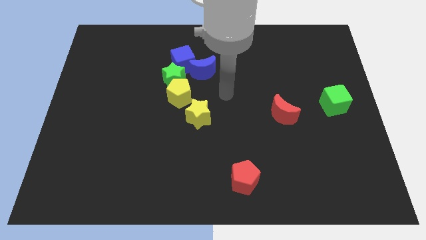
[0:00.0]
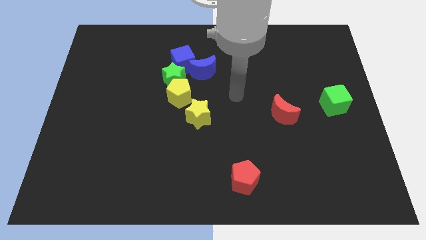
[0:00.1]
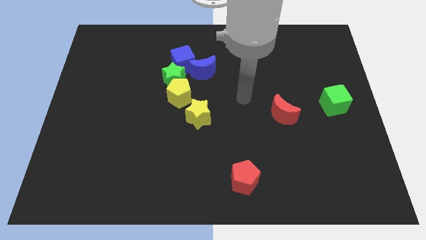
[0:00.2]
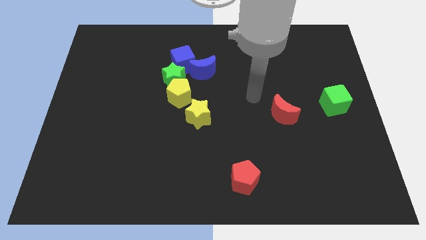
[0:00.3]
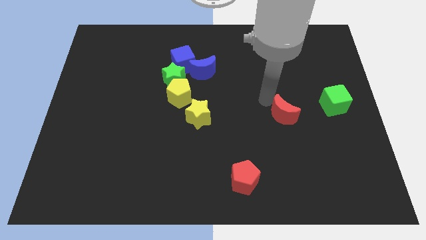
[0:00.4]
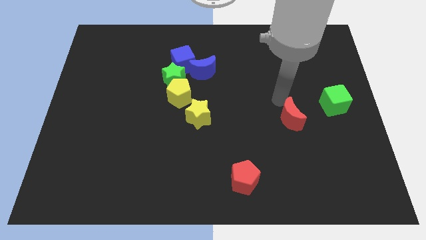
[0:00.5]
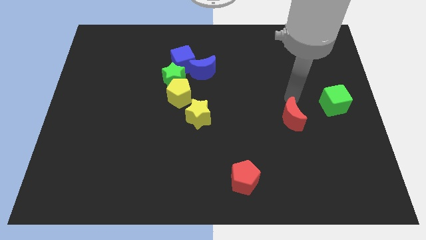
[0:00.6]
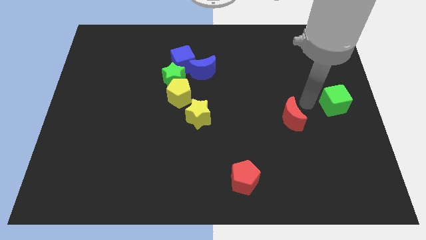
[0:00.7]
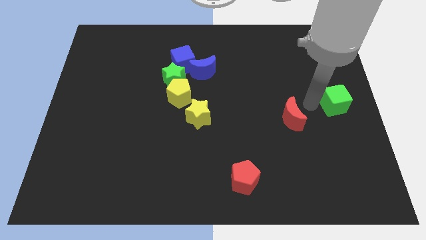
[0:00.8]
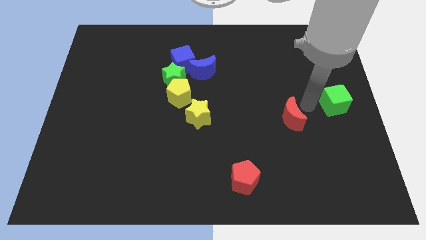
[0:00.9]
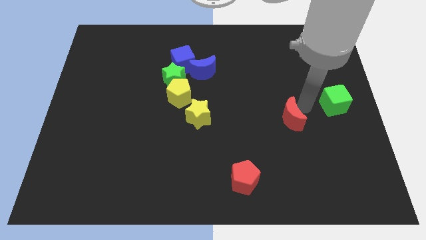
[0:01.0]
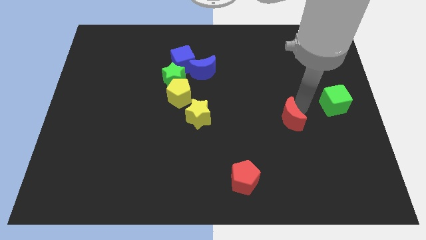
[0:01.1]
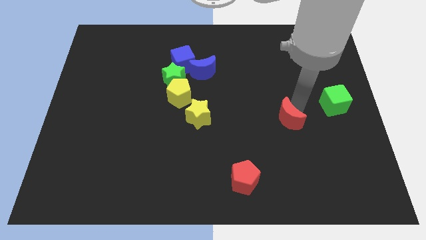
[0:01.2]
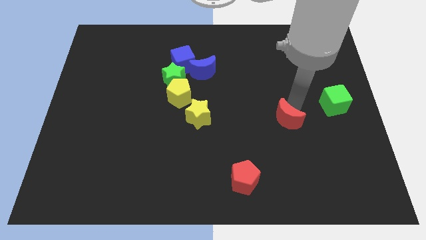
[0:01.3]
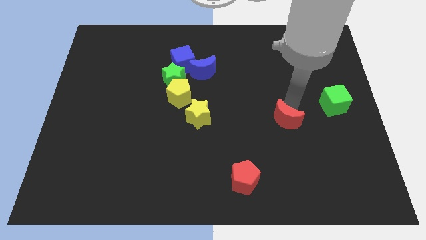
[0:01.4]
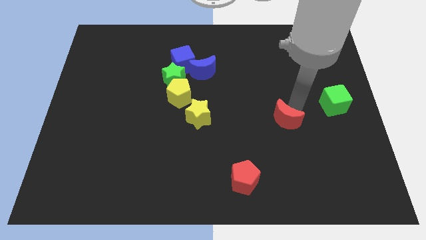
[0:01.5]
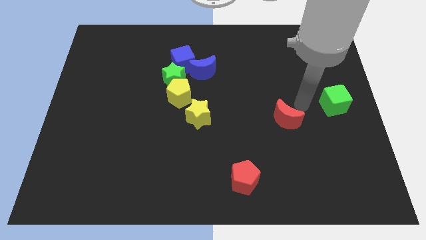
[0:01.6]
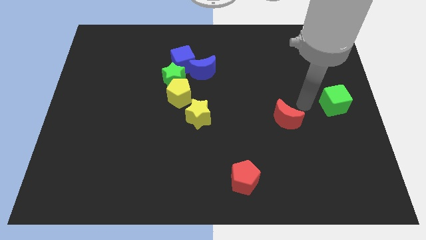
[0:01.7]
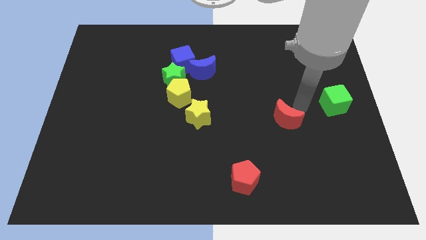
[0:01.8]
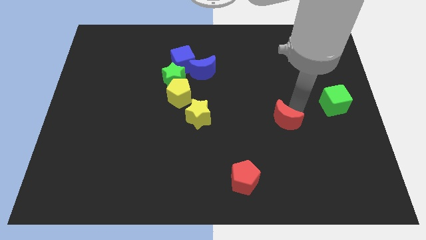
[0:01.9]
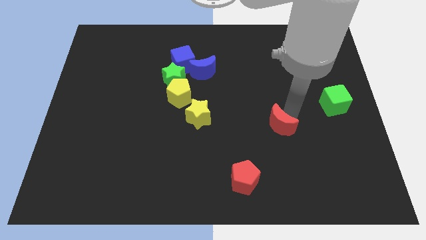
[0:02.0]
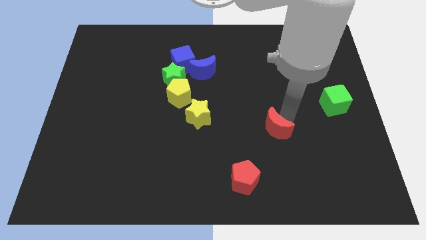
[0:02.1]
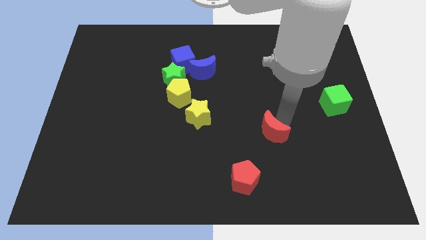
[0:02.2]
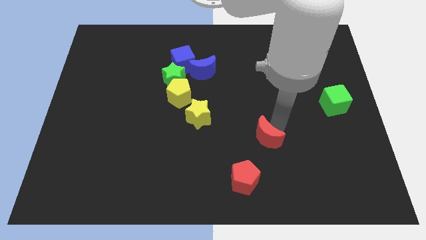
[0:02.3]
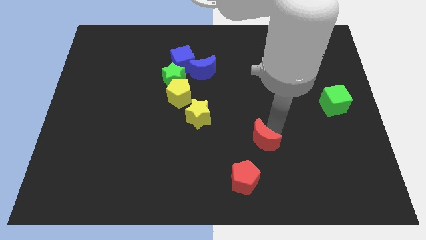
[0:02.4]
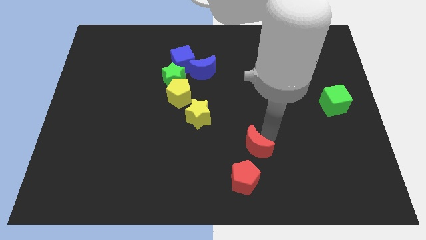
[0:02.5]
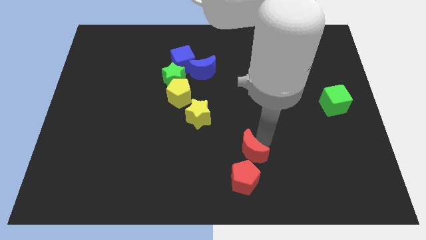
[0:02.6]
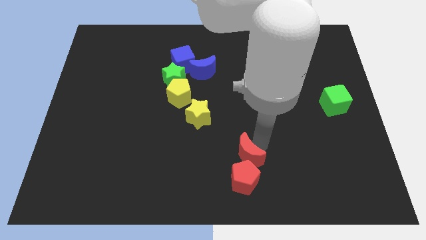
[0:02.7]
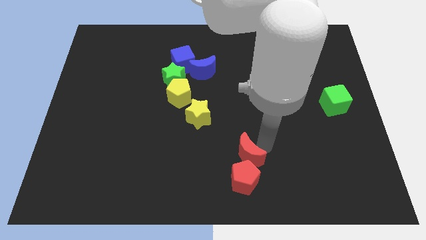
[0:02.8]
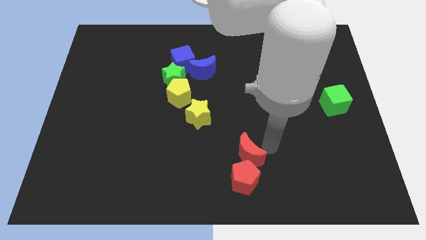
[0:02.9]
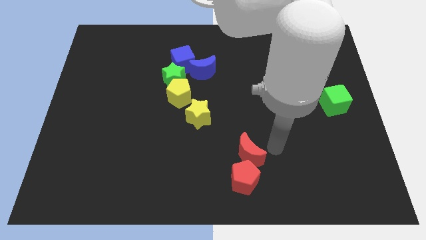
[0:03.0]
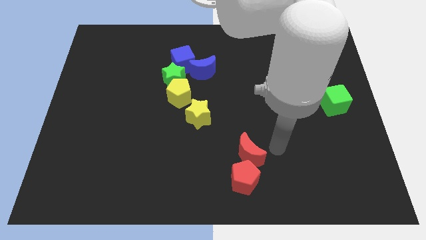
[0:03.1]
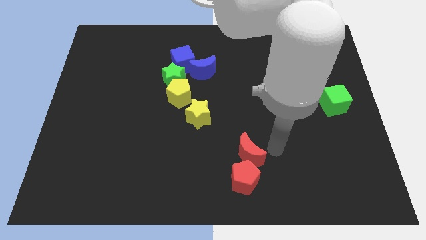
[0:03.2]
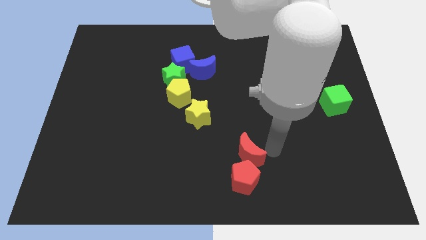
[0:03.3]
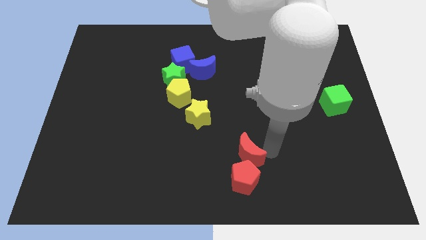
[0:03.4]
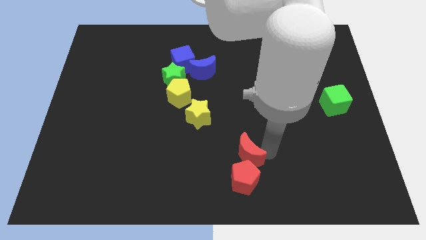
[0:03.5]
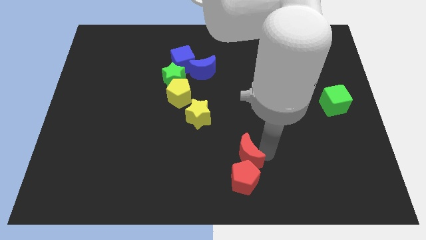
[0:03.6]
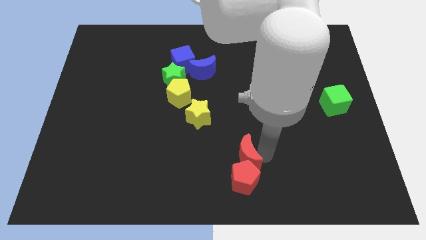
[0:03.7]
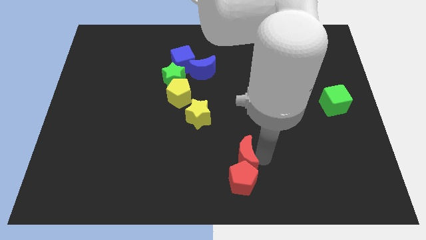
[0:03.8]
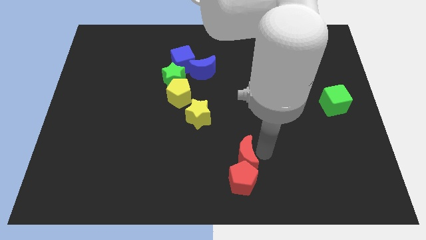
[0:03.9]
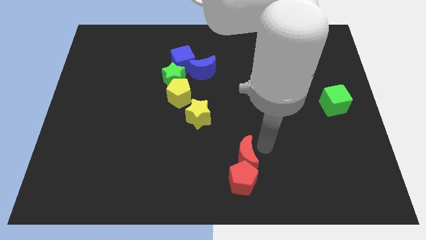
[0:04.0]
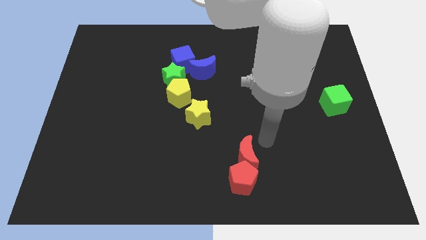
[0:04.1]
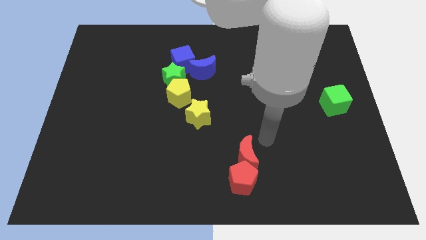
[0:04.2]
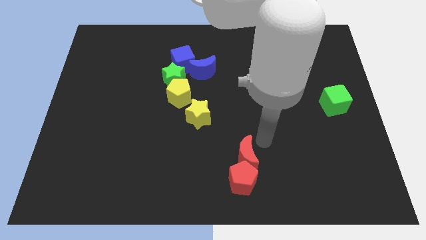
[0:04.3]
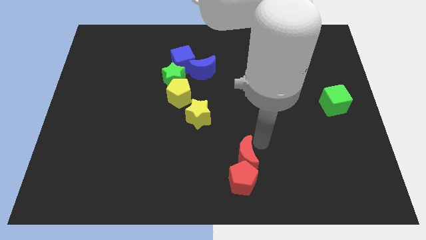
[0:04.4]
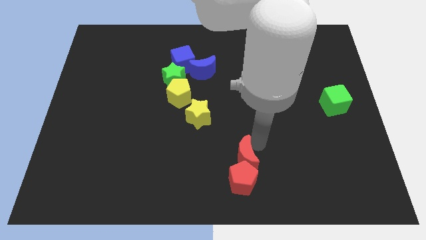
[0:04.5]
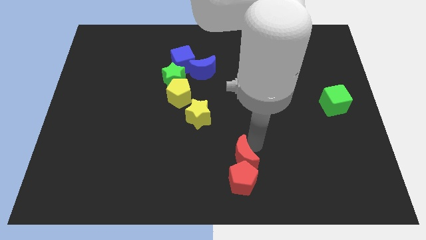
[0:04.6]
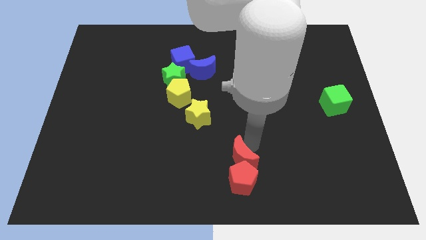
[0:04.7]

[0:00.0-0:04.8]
put the red moon to the bottom side

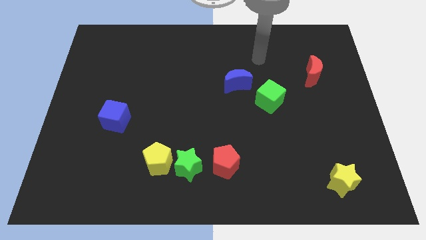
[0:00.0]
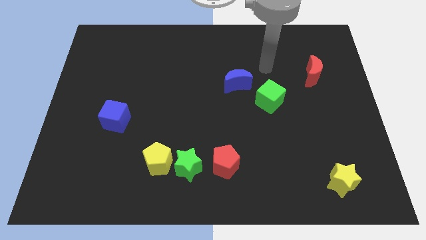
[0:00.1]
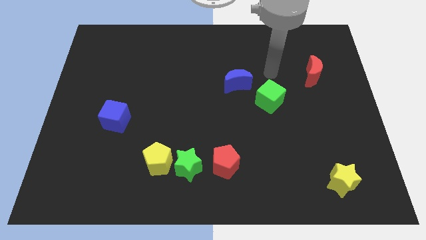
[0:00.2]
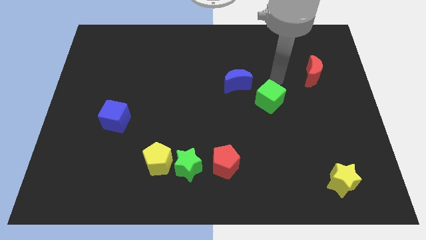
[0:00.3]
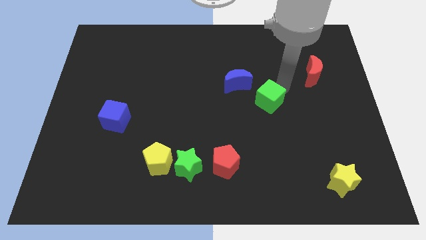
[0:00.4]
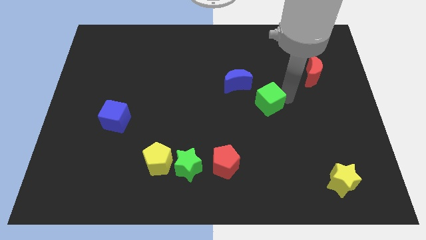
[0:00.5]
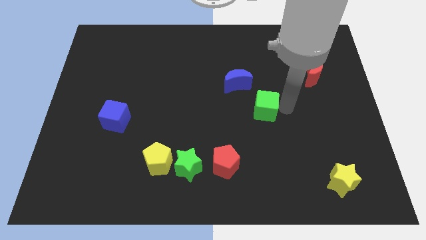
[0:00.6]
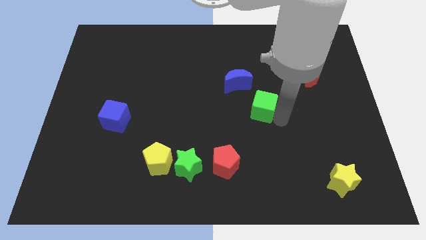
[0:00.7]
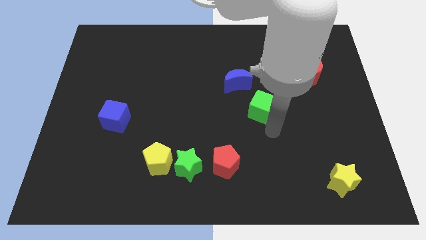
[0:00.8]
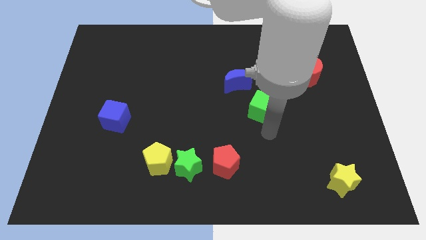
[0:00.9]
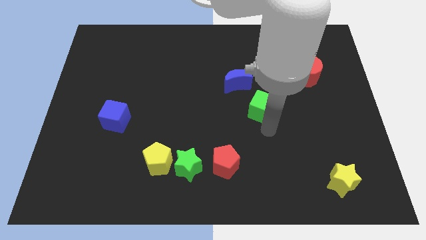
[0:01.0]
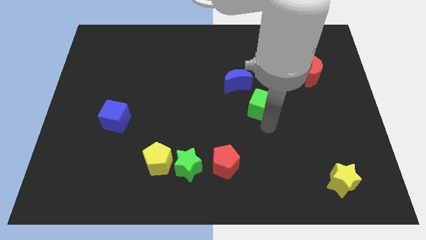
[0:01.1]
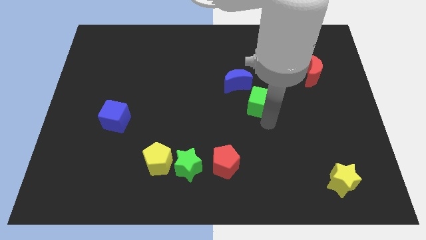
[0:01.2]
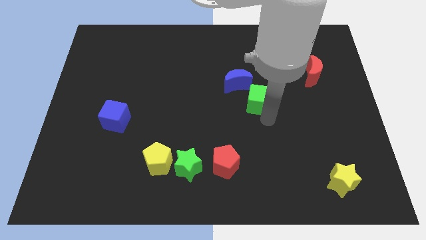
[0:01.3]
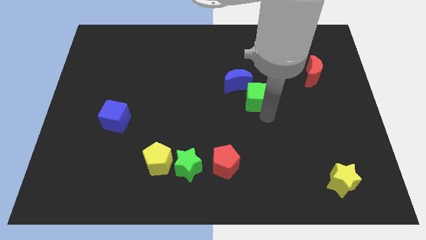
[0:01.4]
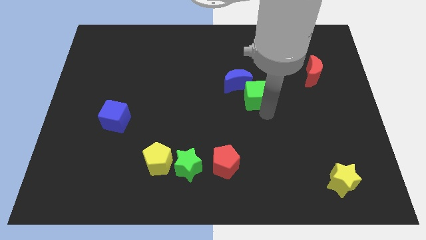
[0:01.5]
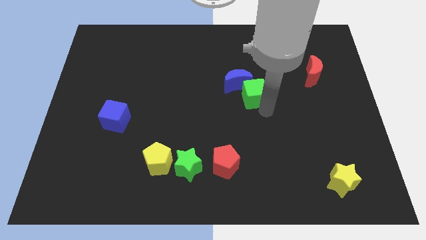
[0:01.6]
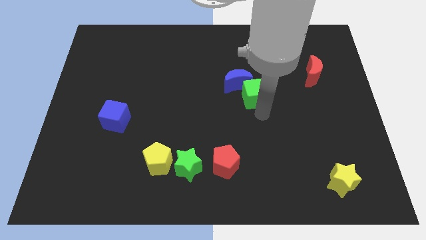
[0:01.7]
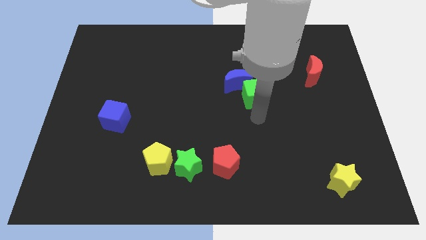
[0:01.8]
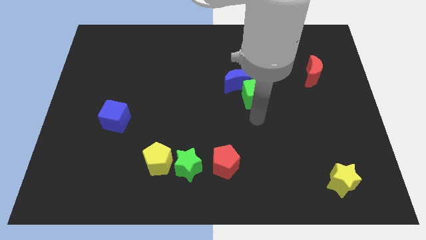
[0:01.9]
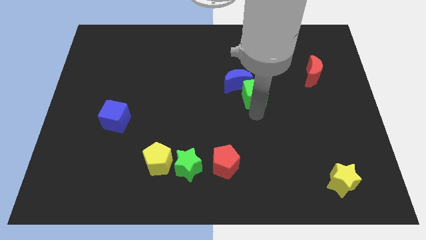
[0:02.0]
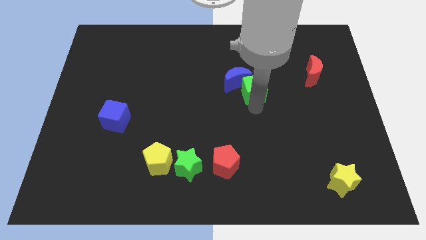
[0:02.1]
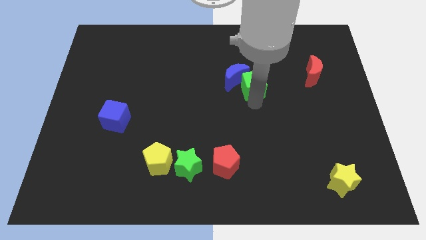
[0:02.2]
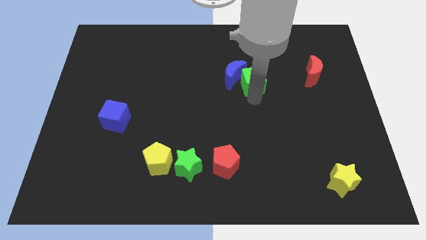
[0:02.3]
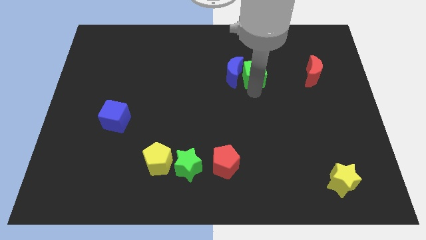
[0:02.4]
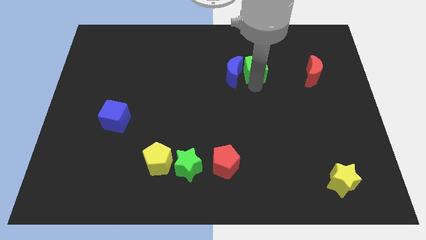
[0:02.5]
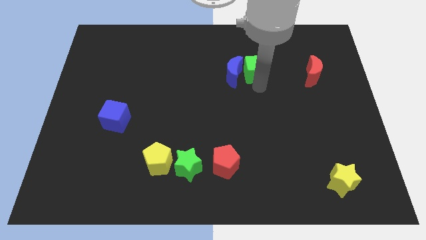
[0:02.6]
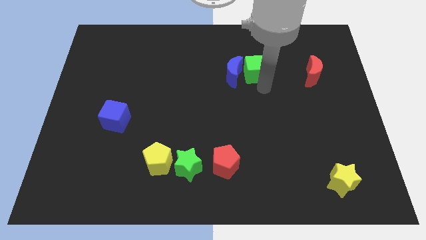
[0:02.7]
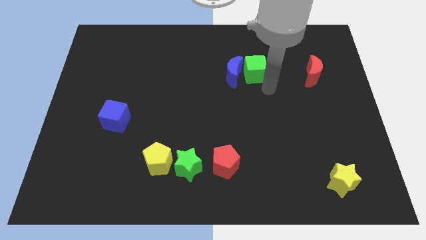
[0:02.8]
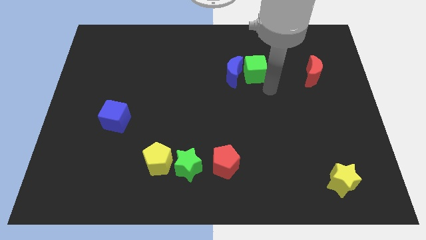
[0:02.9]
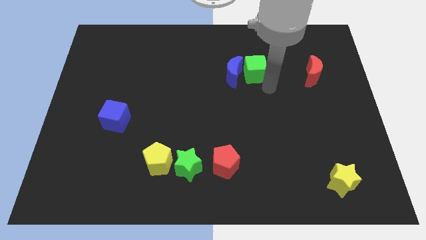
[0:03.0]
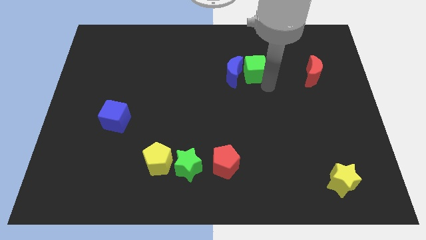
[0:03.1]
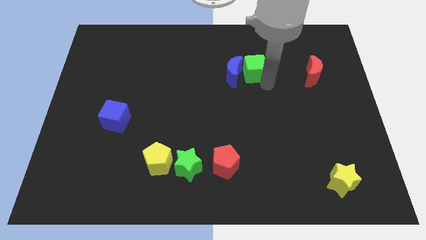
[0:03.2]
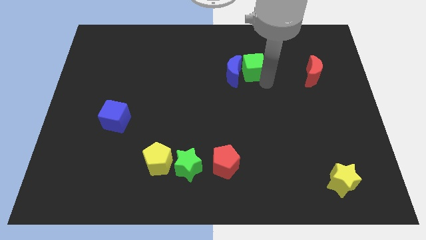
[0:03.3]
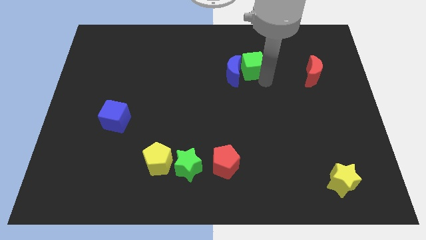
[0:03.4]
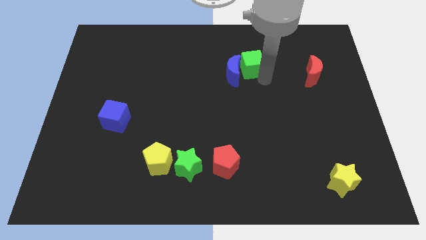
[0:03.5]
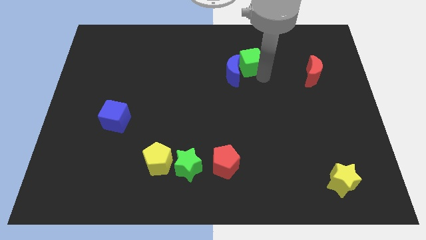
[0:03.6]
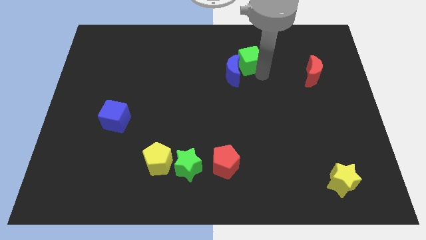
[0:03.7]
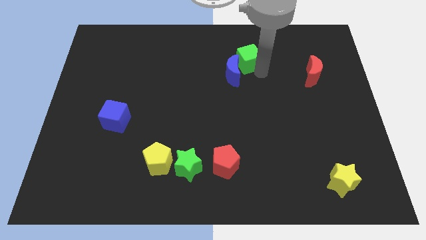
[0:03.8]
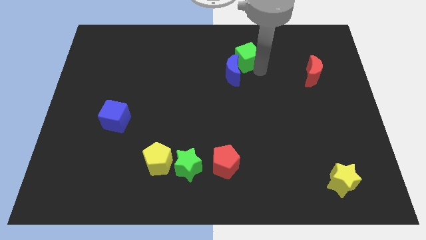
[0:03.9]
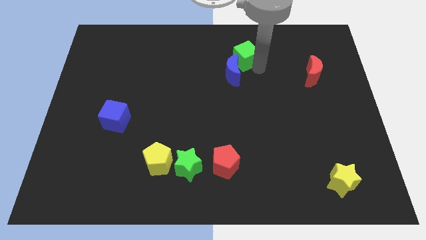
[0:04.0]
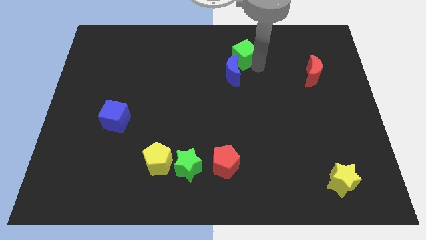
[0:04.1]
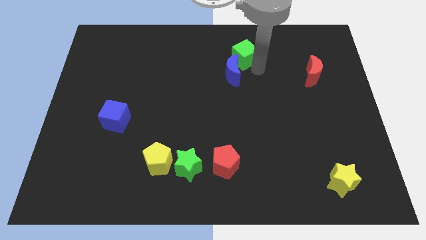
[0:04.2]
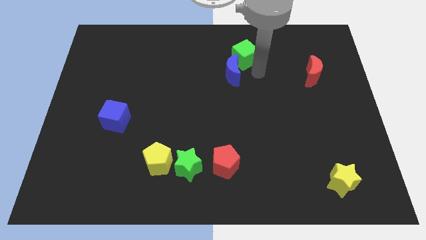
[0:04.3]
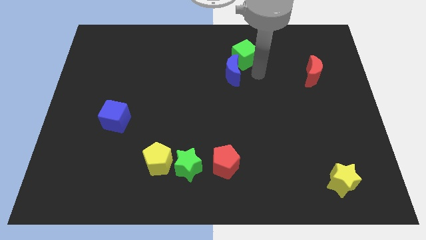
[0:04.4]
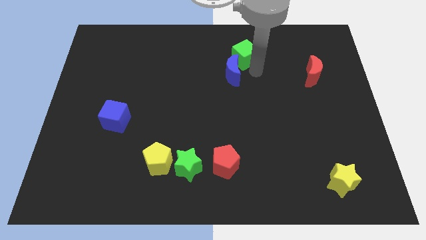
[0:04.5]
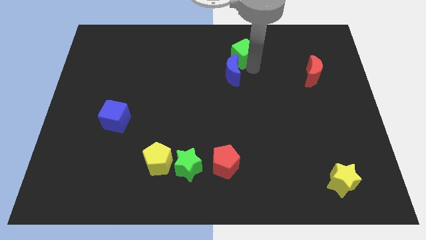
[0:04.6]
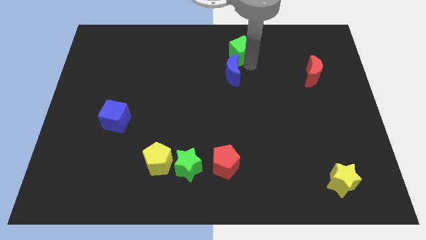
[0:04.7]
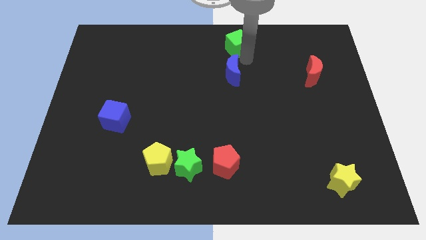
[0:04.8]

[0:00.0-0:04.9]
move the green cube to the towards your base
